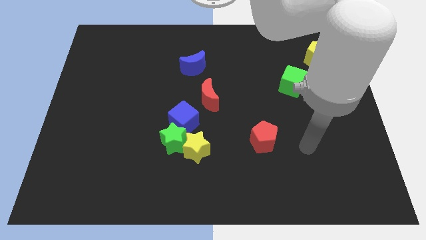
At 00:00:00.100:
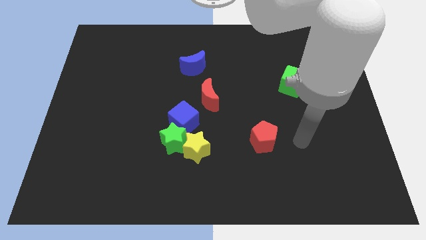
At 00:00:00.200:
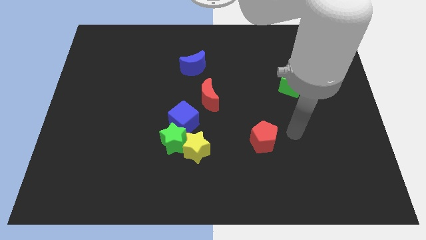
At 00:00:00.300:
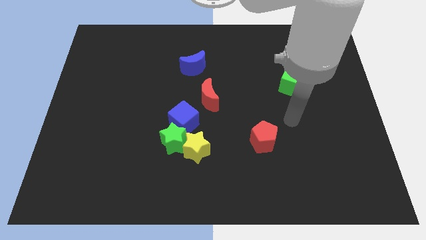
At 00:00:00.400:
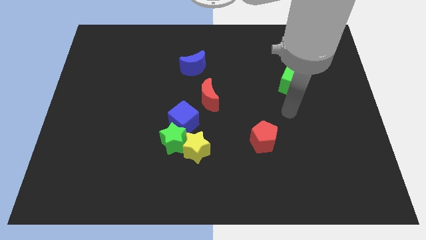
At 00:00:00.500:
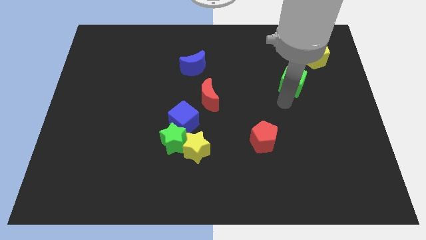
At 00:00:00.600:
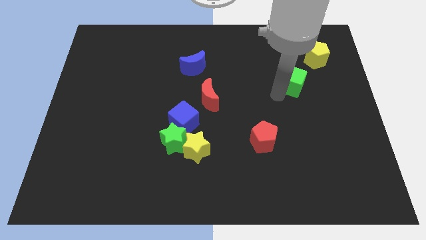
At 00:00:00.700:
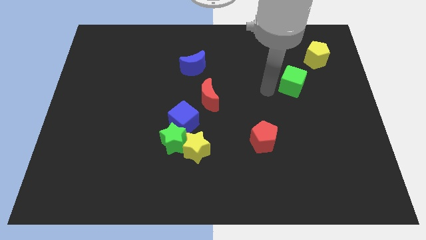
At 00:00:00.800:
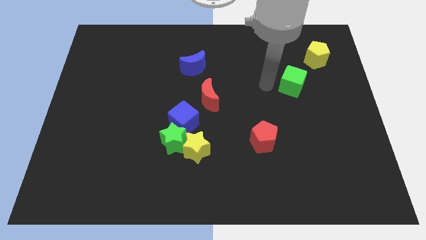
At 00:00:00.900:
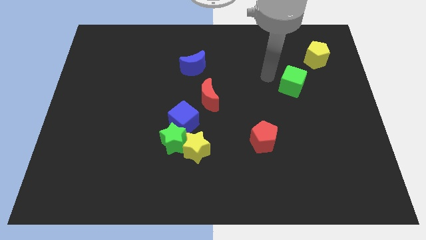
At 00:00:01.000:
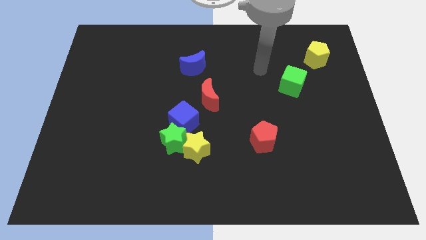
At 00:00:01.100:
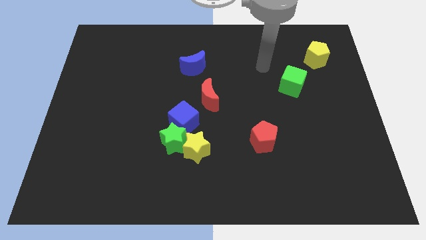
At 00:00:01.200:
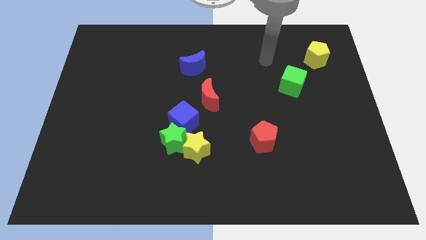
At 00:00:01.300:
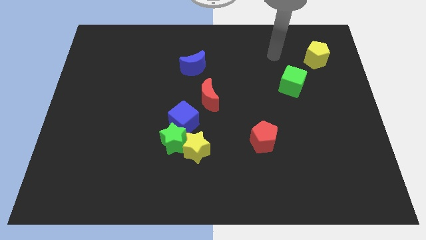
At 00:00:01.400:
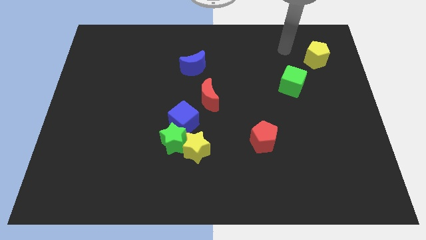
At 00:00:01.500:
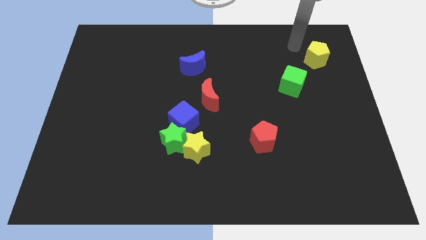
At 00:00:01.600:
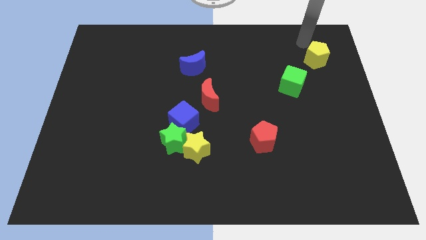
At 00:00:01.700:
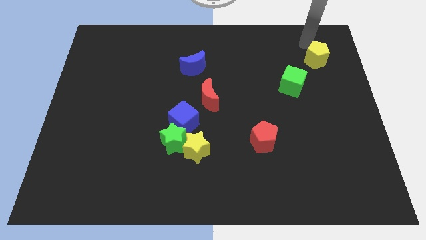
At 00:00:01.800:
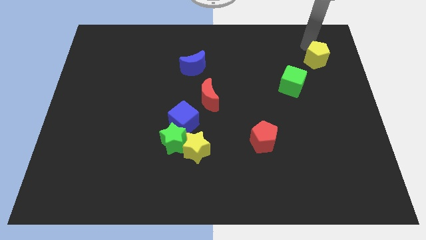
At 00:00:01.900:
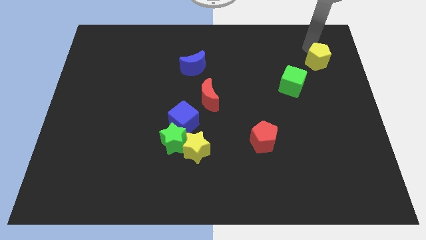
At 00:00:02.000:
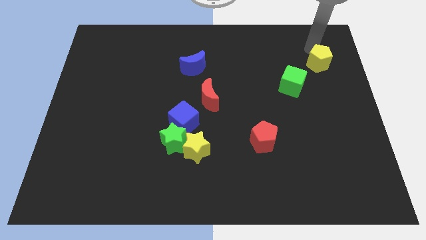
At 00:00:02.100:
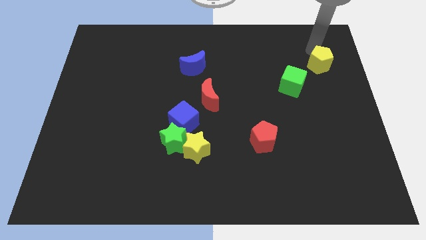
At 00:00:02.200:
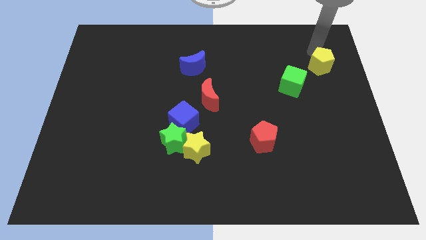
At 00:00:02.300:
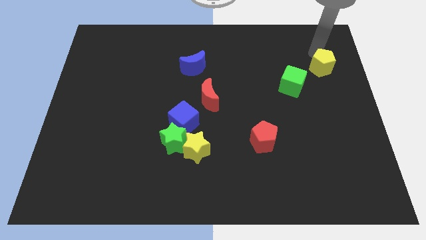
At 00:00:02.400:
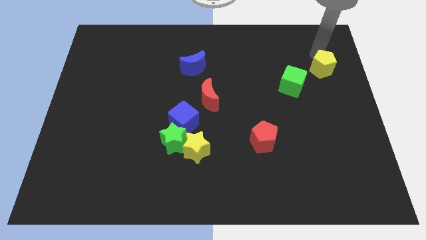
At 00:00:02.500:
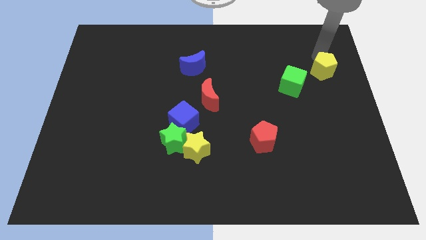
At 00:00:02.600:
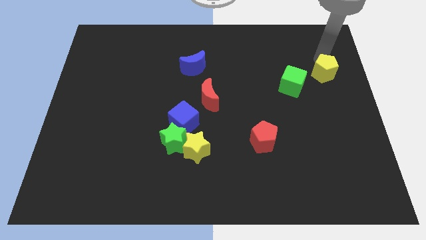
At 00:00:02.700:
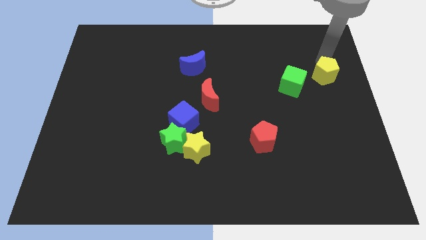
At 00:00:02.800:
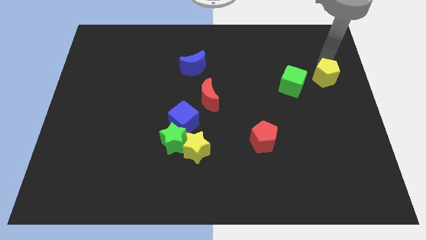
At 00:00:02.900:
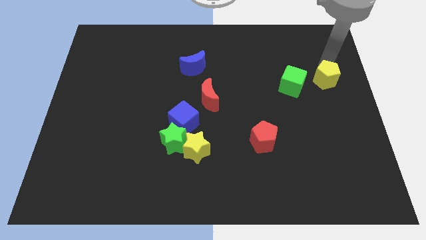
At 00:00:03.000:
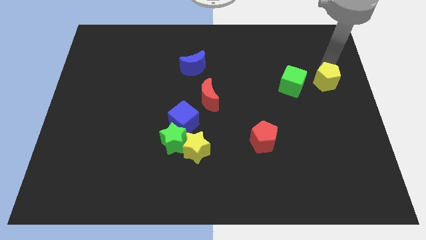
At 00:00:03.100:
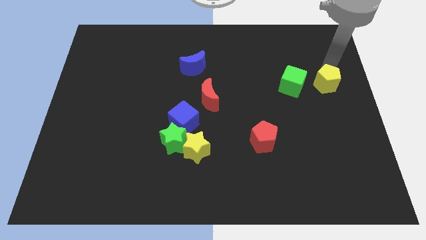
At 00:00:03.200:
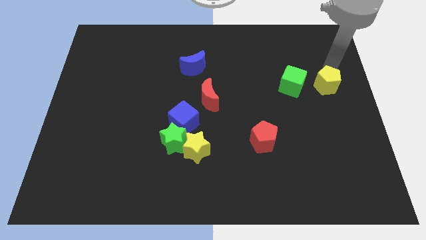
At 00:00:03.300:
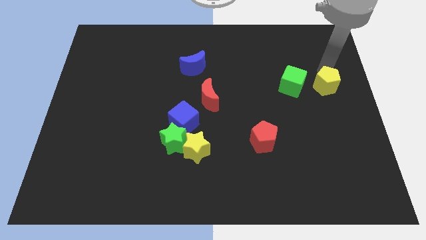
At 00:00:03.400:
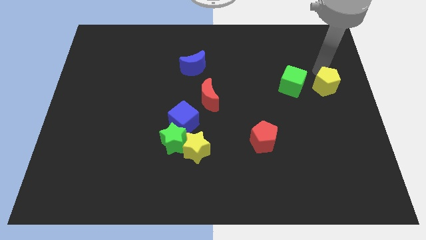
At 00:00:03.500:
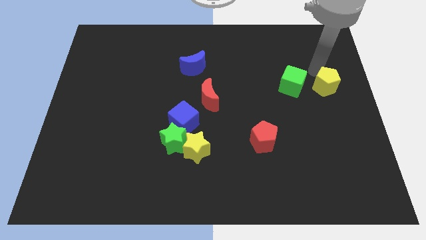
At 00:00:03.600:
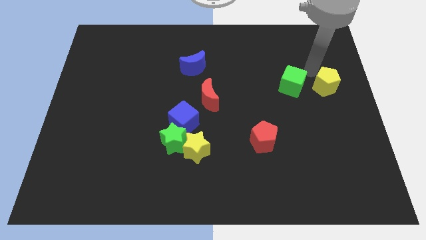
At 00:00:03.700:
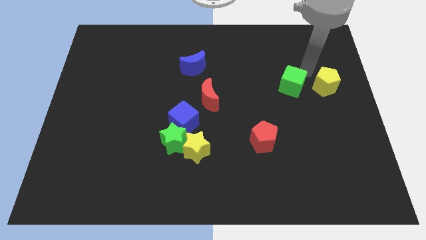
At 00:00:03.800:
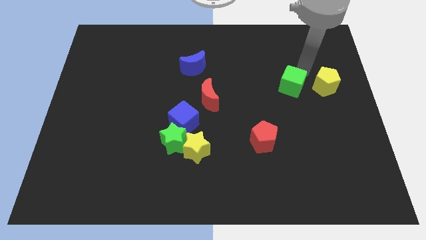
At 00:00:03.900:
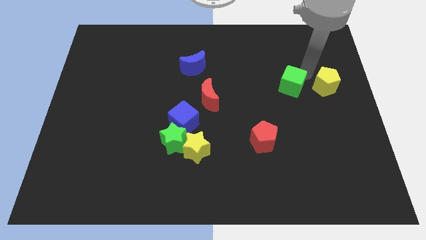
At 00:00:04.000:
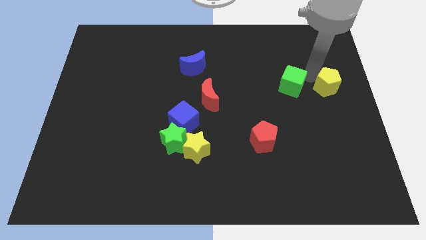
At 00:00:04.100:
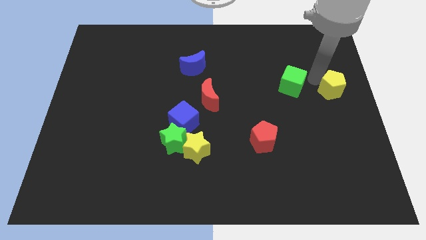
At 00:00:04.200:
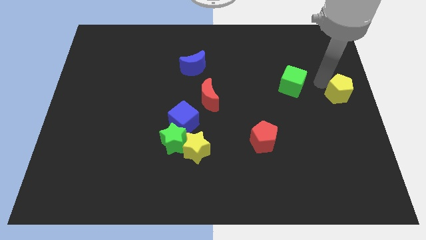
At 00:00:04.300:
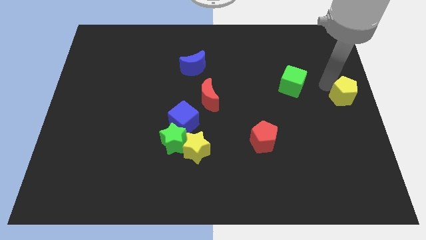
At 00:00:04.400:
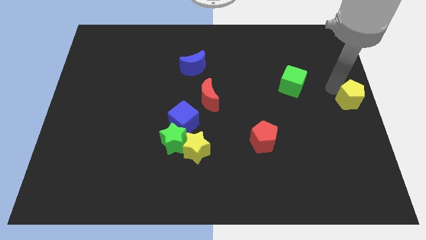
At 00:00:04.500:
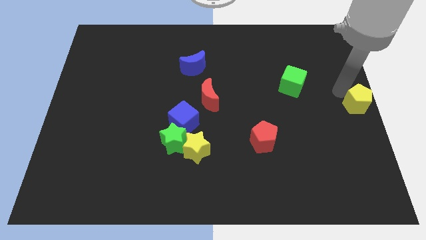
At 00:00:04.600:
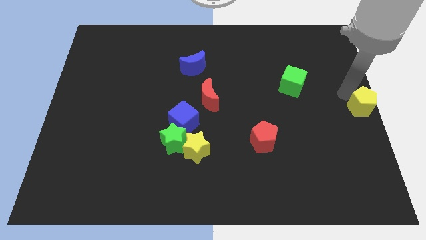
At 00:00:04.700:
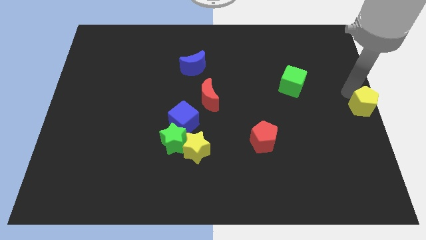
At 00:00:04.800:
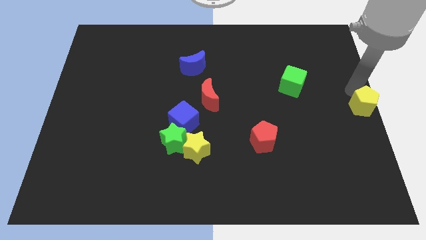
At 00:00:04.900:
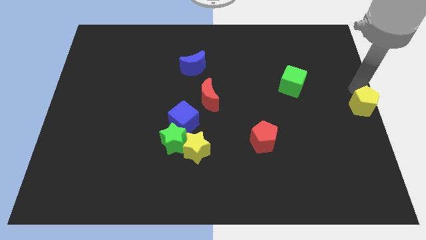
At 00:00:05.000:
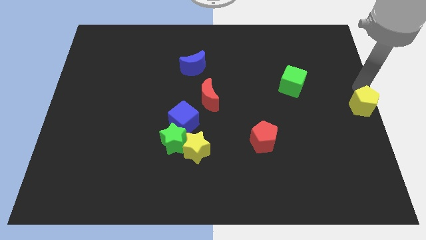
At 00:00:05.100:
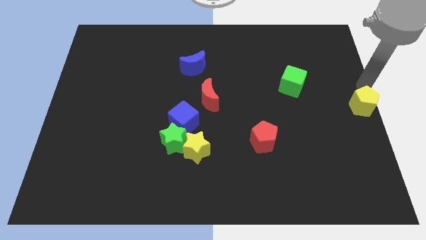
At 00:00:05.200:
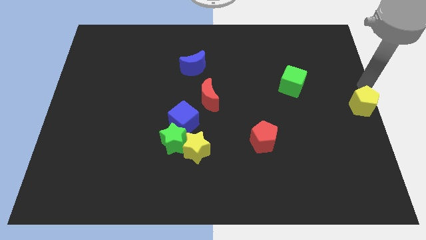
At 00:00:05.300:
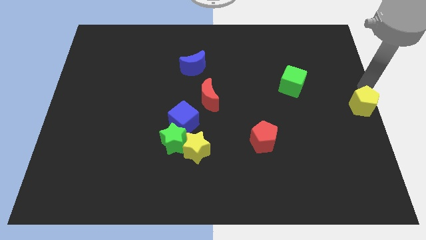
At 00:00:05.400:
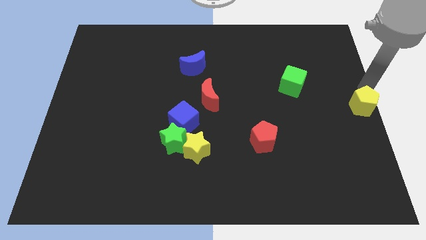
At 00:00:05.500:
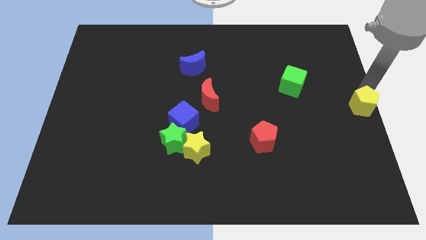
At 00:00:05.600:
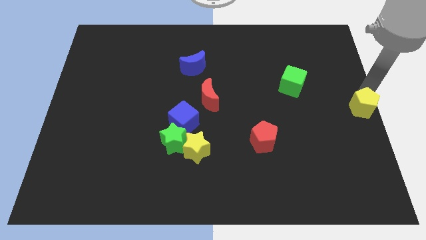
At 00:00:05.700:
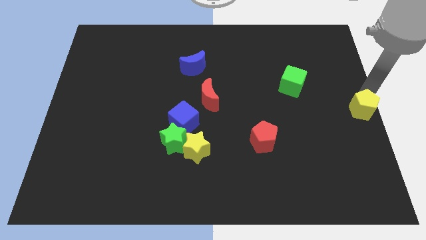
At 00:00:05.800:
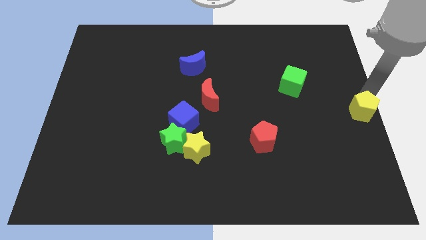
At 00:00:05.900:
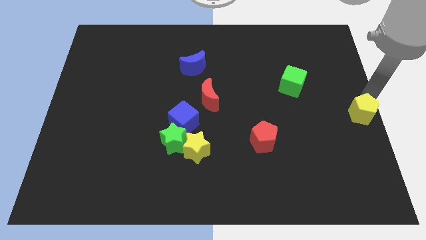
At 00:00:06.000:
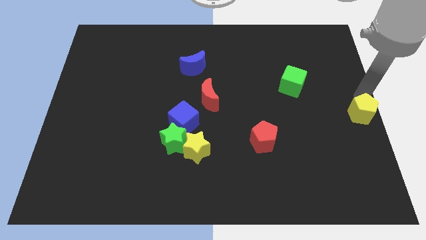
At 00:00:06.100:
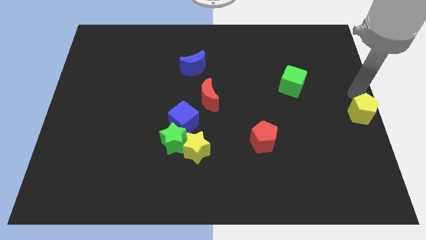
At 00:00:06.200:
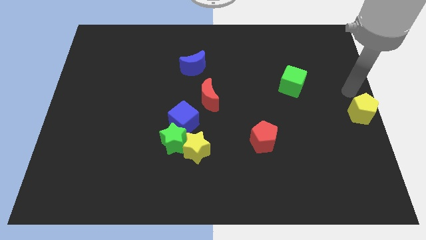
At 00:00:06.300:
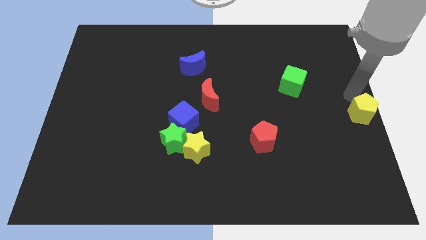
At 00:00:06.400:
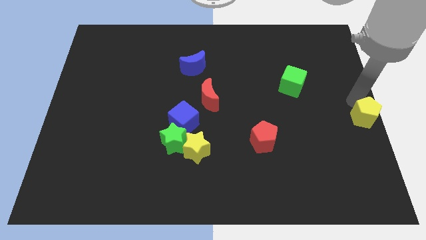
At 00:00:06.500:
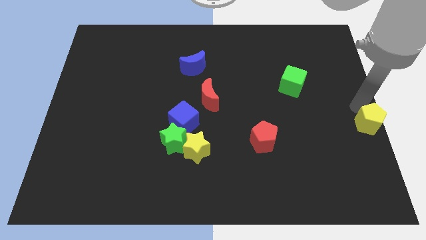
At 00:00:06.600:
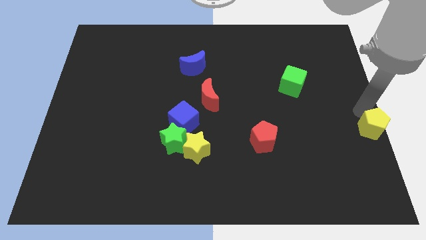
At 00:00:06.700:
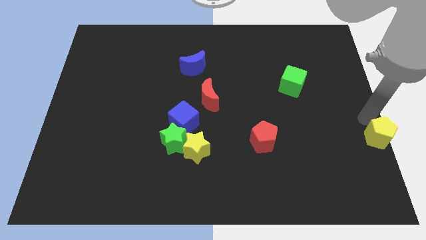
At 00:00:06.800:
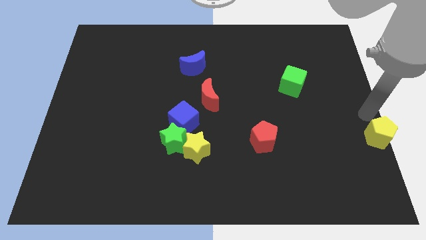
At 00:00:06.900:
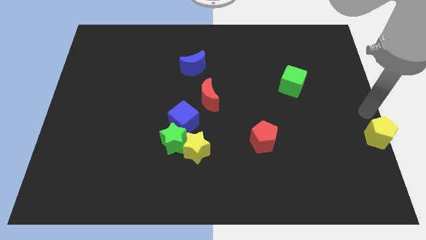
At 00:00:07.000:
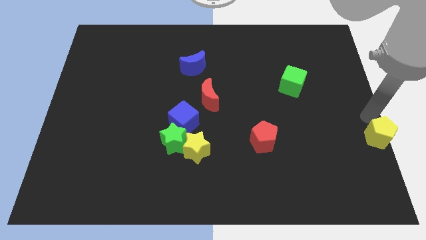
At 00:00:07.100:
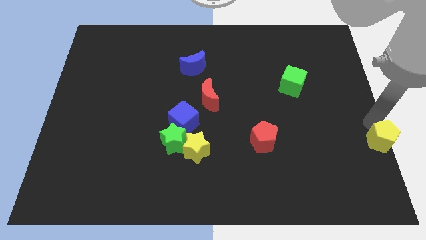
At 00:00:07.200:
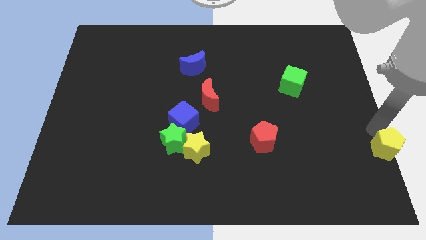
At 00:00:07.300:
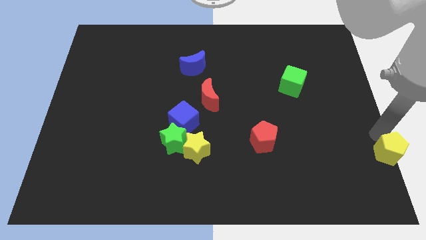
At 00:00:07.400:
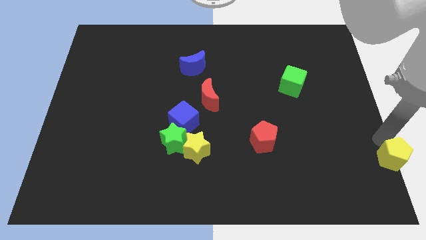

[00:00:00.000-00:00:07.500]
put the yellow pentagon to the lower right corner

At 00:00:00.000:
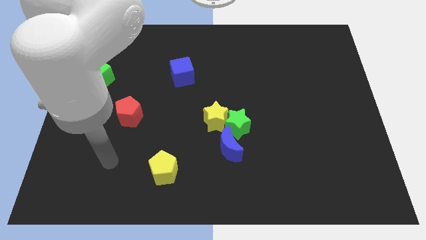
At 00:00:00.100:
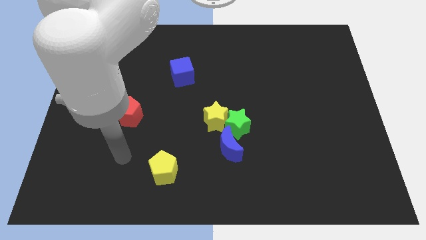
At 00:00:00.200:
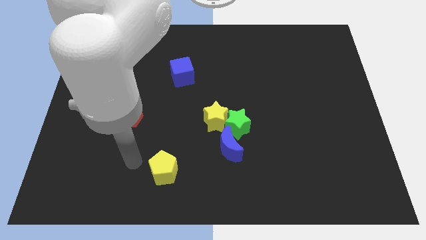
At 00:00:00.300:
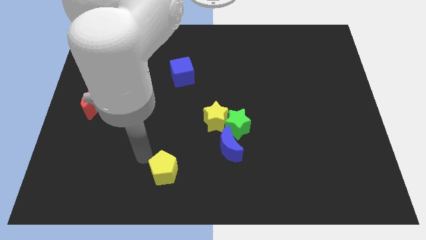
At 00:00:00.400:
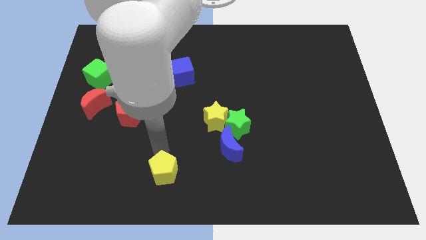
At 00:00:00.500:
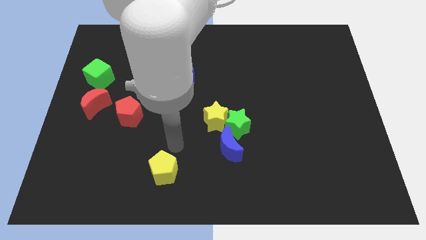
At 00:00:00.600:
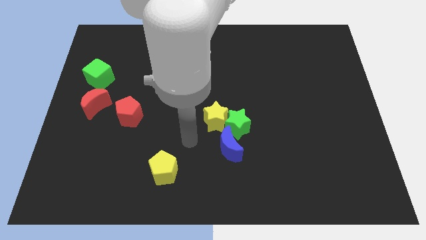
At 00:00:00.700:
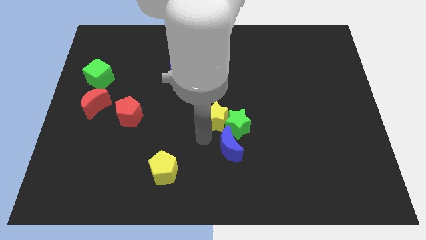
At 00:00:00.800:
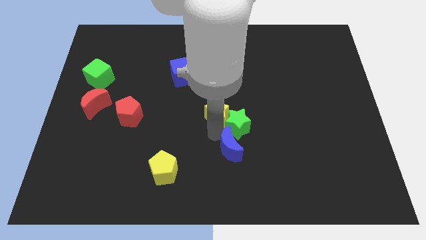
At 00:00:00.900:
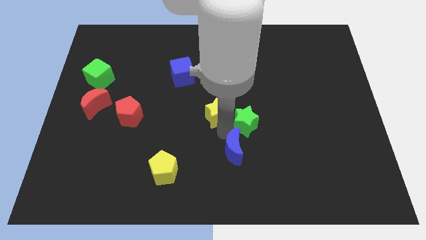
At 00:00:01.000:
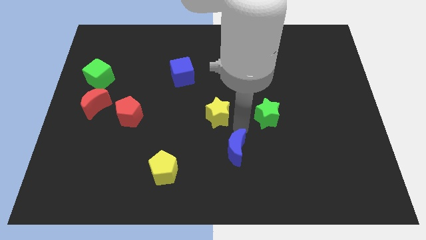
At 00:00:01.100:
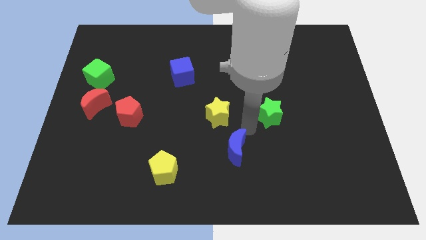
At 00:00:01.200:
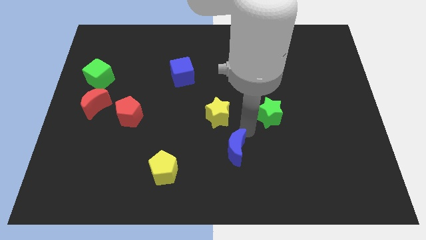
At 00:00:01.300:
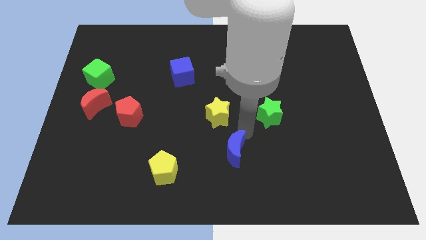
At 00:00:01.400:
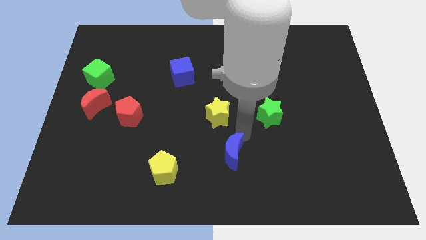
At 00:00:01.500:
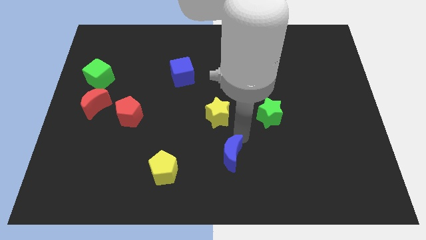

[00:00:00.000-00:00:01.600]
slide the blue moon to the bottom
